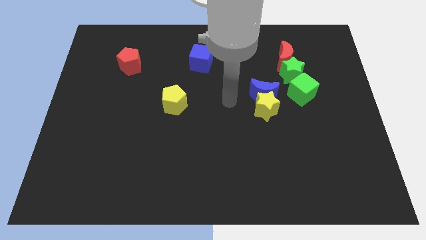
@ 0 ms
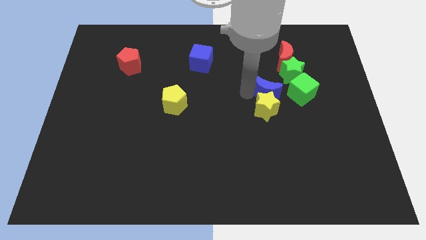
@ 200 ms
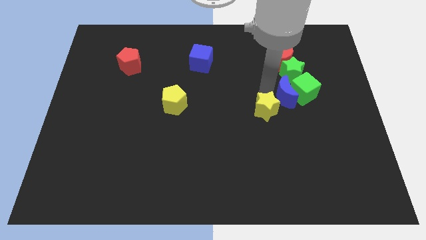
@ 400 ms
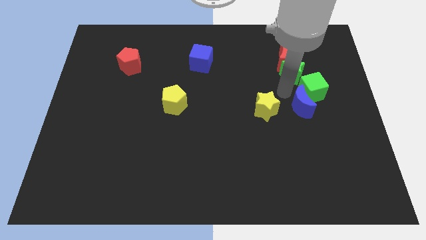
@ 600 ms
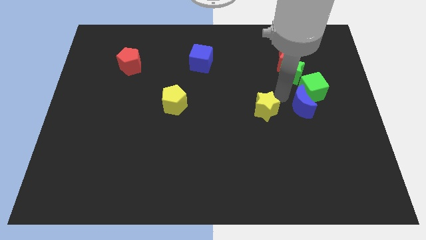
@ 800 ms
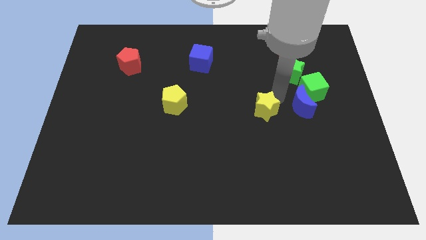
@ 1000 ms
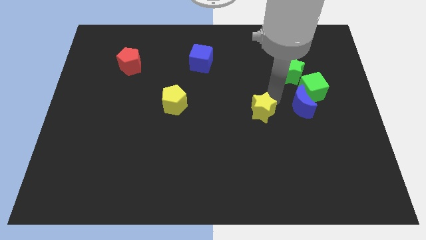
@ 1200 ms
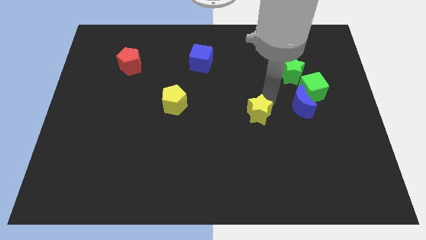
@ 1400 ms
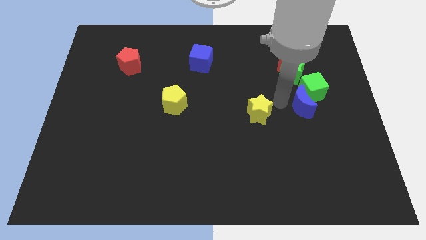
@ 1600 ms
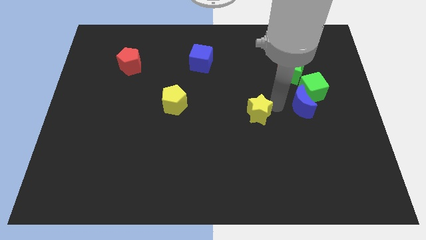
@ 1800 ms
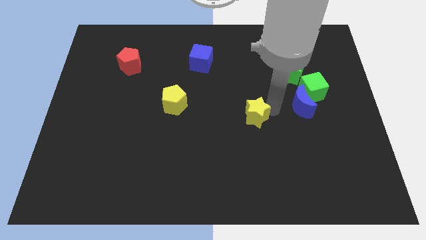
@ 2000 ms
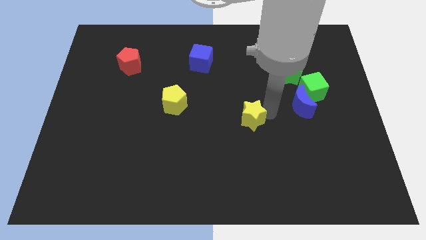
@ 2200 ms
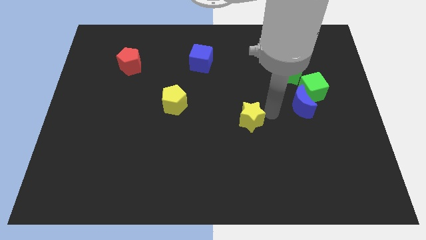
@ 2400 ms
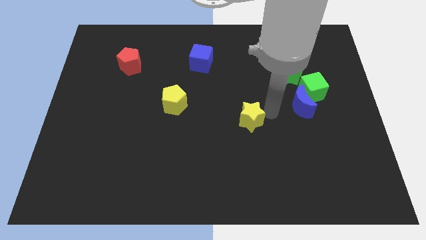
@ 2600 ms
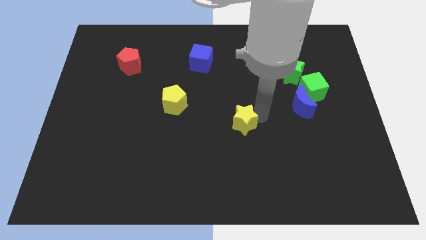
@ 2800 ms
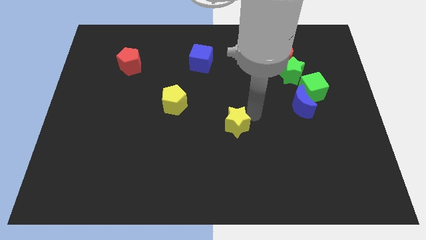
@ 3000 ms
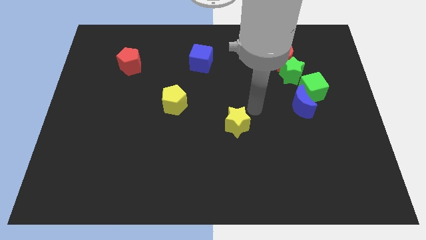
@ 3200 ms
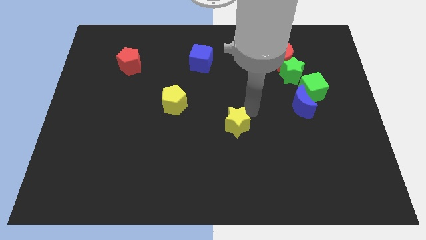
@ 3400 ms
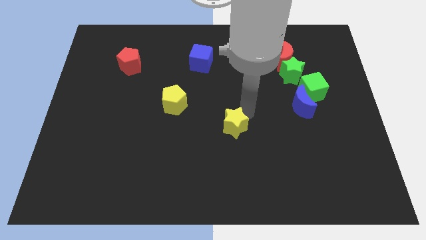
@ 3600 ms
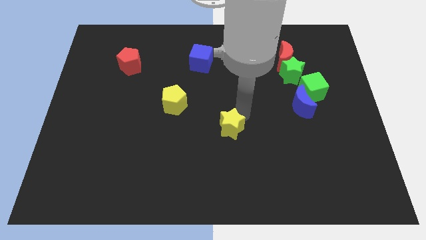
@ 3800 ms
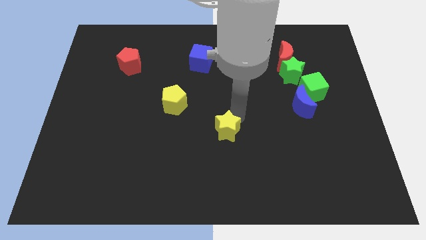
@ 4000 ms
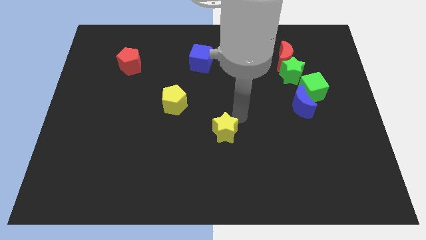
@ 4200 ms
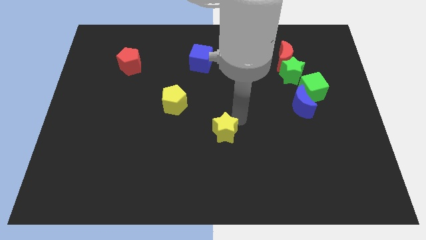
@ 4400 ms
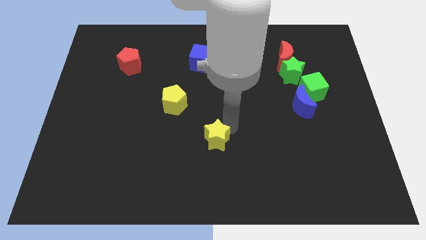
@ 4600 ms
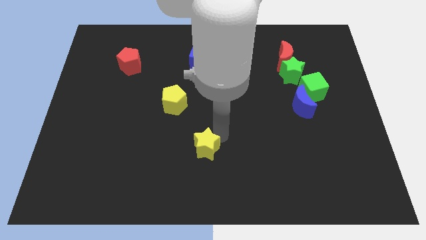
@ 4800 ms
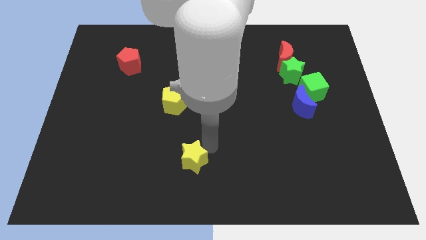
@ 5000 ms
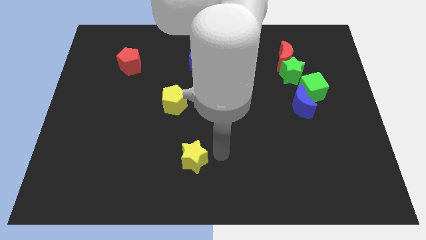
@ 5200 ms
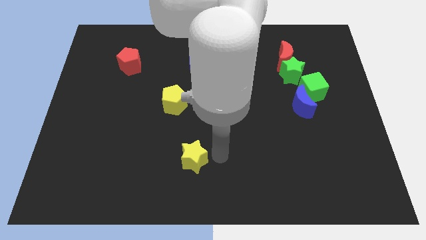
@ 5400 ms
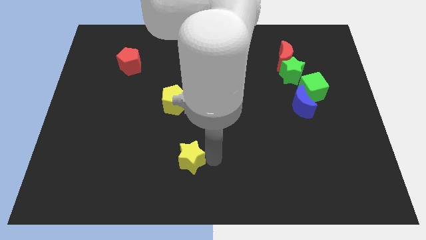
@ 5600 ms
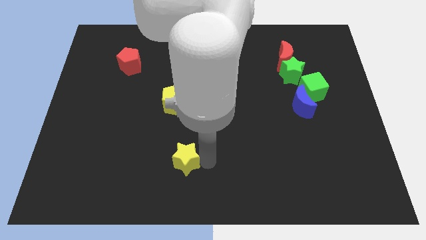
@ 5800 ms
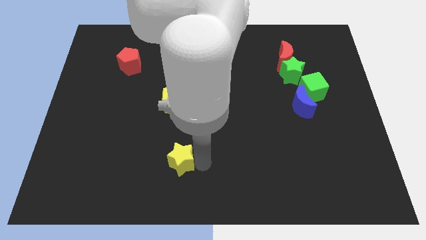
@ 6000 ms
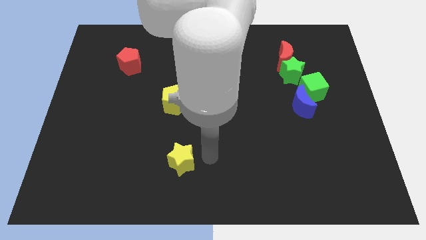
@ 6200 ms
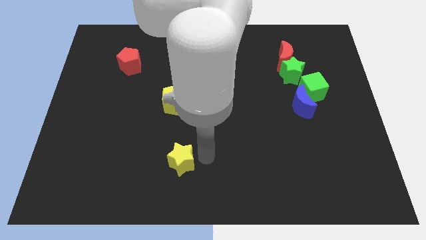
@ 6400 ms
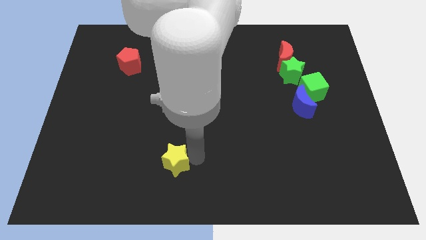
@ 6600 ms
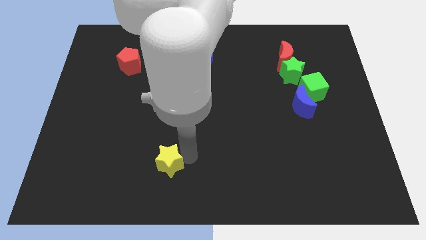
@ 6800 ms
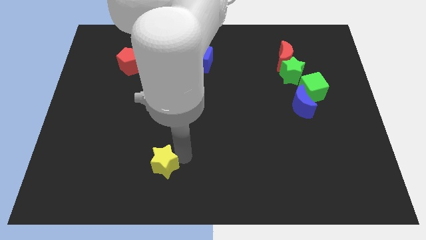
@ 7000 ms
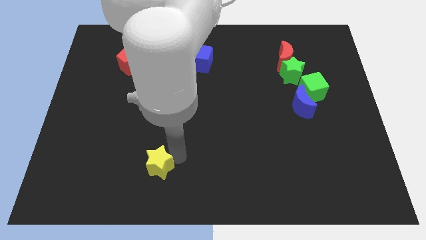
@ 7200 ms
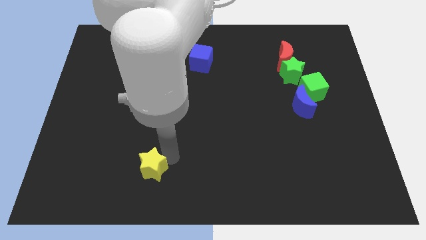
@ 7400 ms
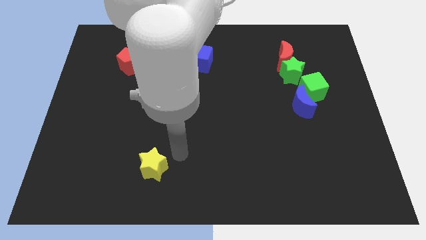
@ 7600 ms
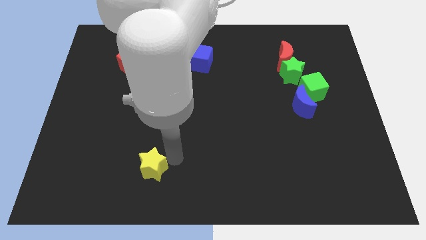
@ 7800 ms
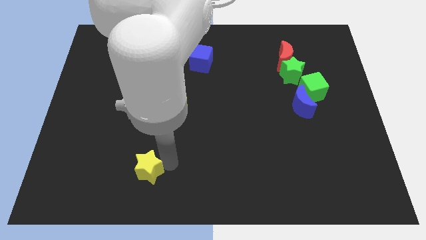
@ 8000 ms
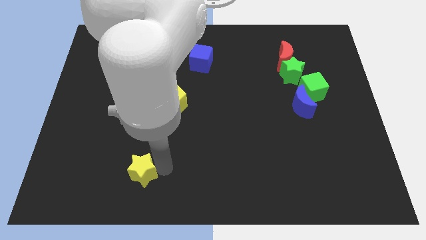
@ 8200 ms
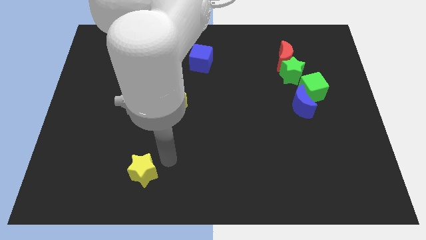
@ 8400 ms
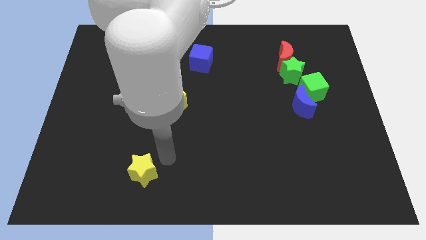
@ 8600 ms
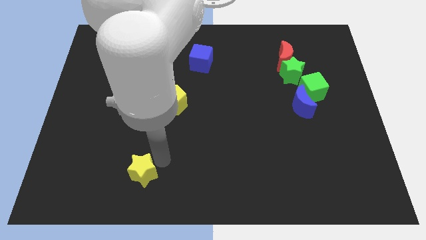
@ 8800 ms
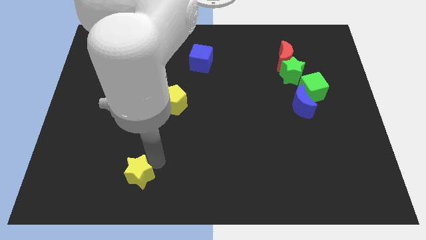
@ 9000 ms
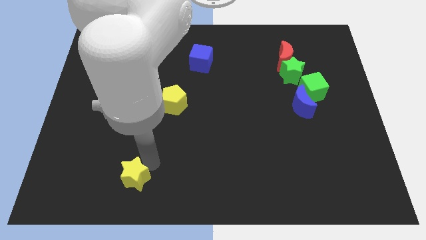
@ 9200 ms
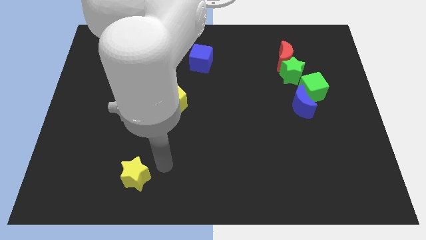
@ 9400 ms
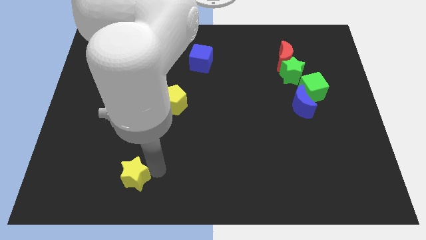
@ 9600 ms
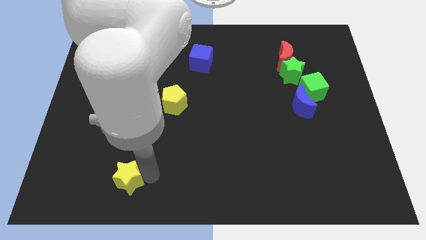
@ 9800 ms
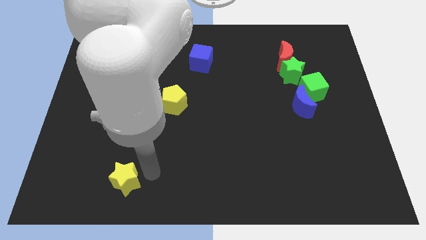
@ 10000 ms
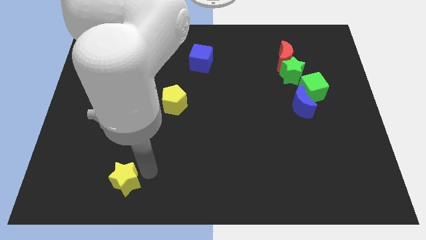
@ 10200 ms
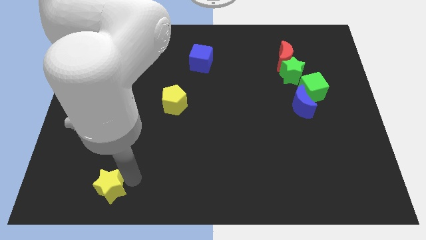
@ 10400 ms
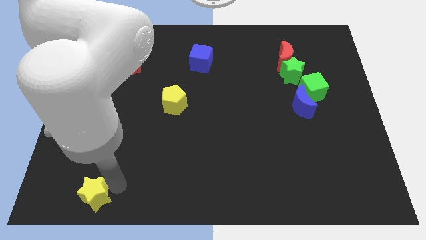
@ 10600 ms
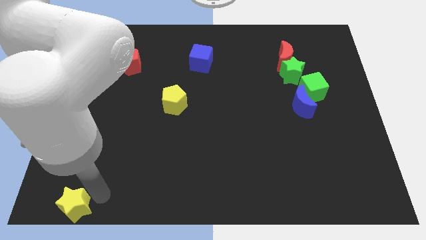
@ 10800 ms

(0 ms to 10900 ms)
slide the yellow star to the bottom left corner
